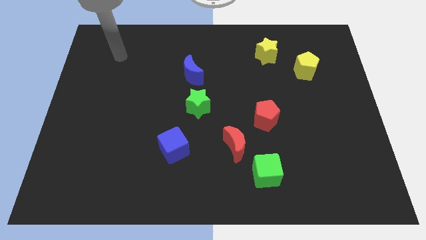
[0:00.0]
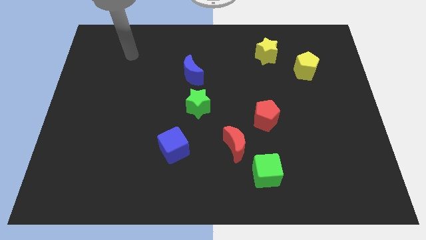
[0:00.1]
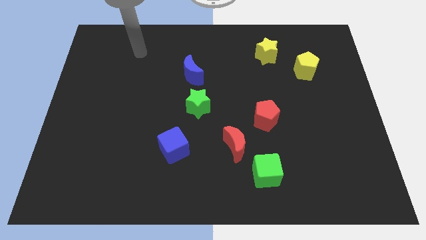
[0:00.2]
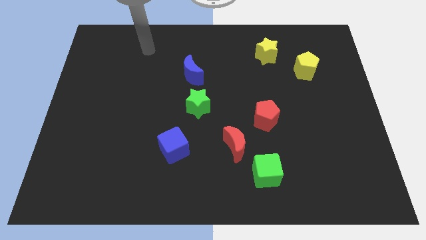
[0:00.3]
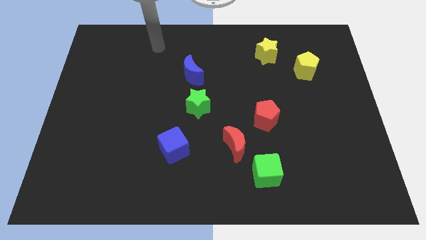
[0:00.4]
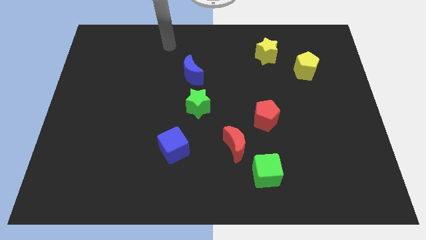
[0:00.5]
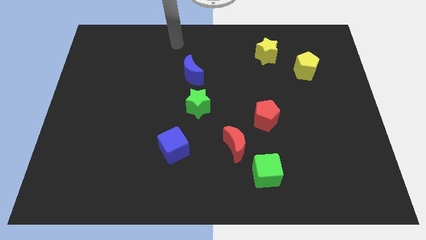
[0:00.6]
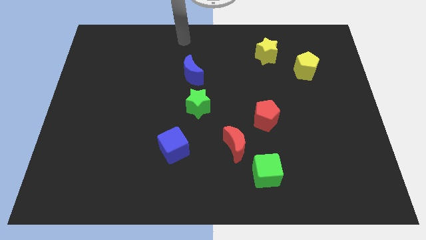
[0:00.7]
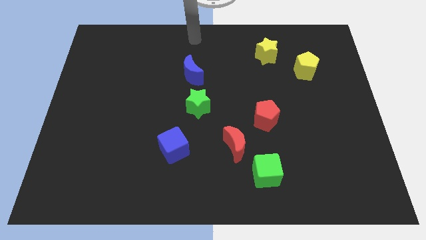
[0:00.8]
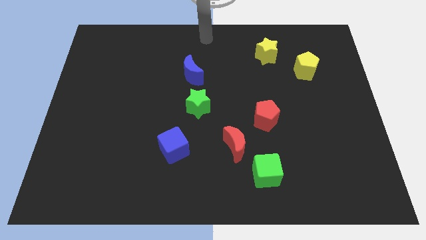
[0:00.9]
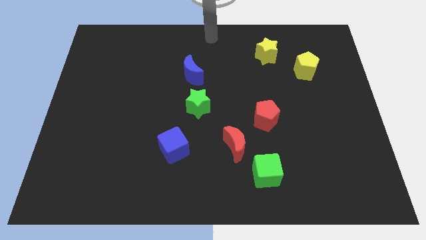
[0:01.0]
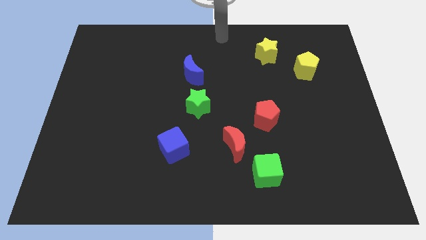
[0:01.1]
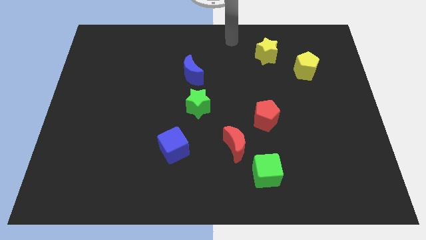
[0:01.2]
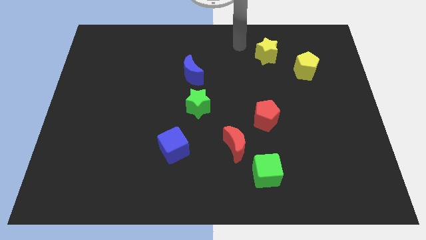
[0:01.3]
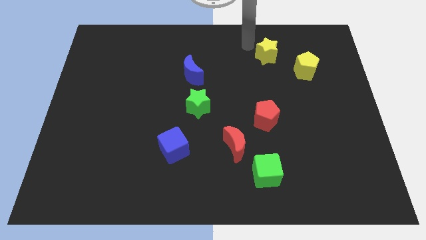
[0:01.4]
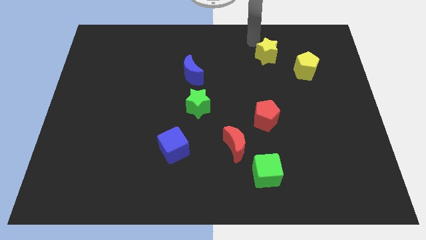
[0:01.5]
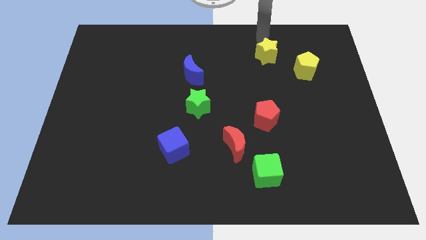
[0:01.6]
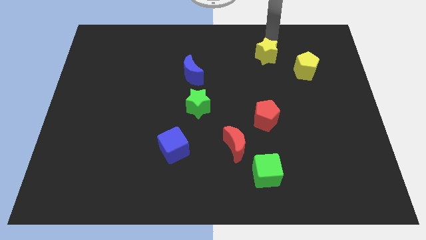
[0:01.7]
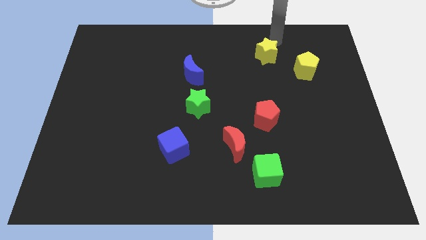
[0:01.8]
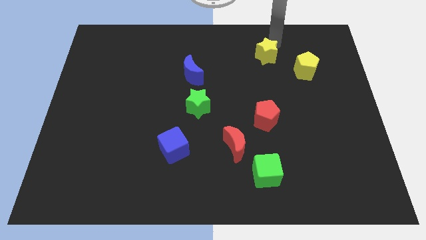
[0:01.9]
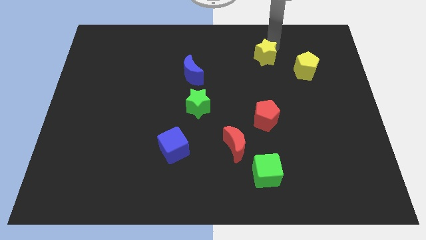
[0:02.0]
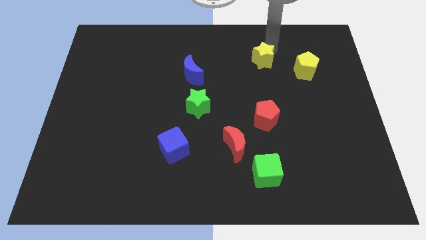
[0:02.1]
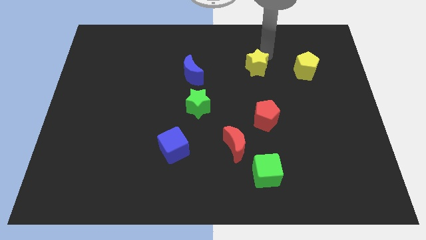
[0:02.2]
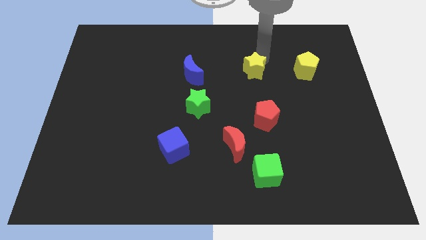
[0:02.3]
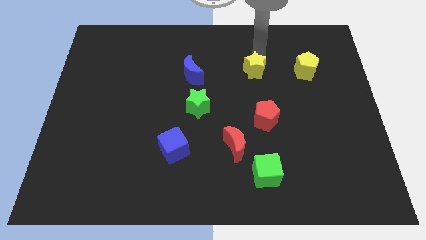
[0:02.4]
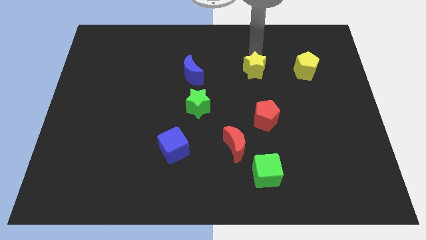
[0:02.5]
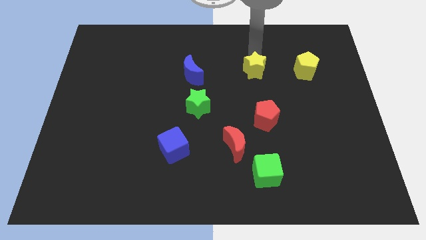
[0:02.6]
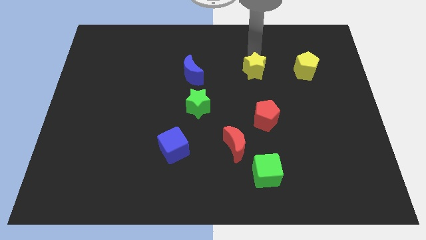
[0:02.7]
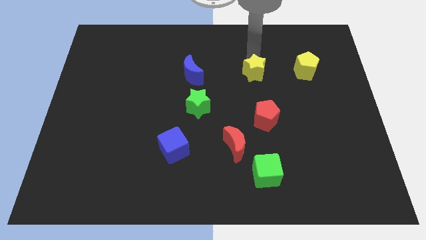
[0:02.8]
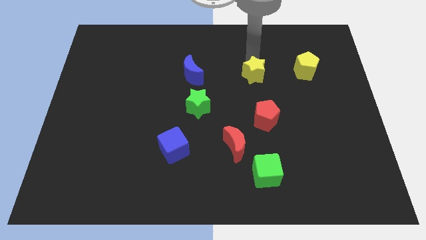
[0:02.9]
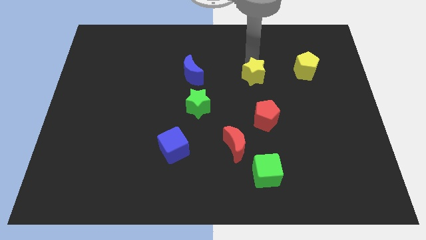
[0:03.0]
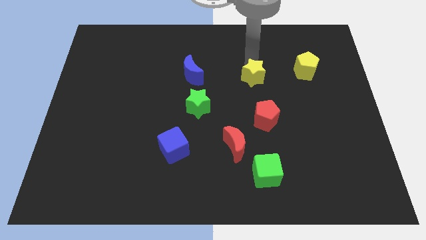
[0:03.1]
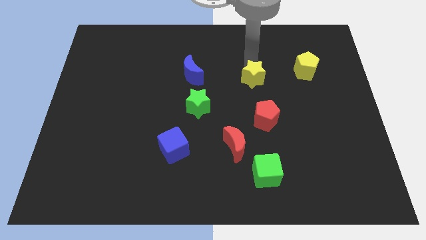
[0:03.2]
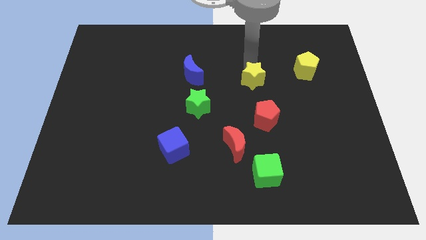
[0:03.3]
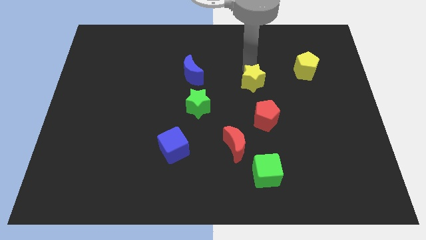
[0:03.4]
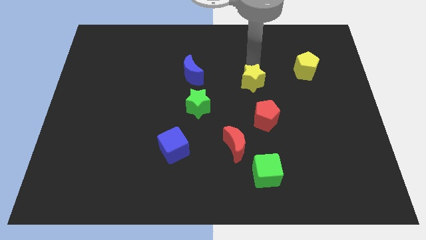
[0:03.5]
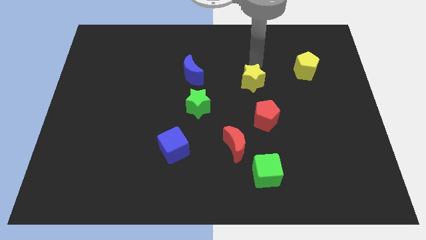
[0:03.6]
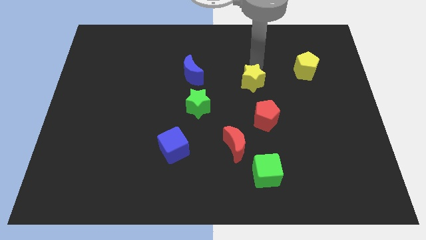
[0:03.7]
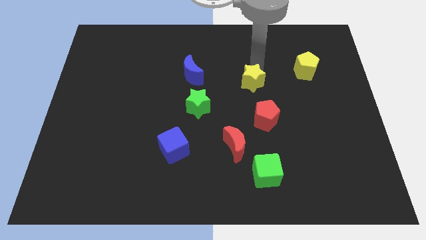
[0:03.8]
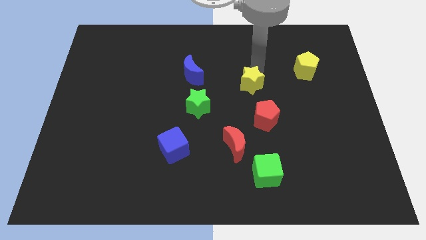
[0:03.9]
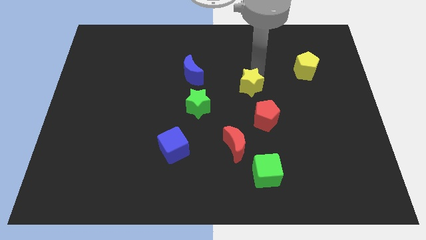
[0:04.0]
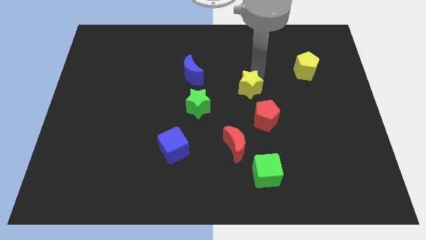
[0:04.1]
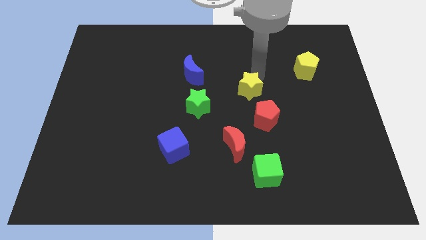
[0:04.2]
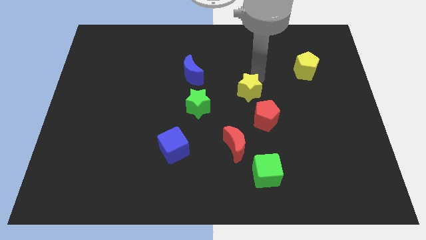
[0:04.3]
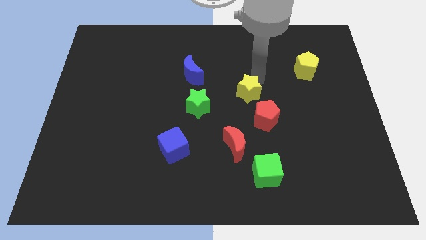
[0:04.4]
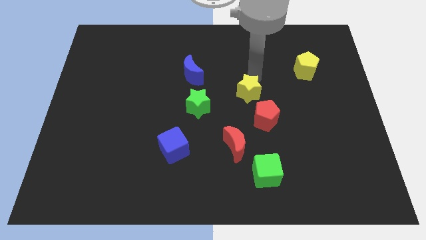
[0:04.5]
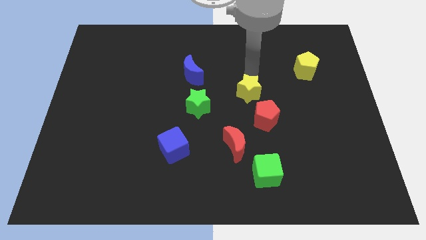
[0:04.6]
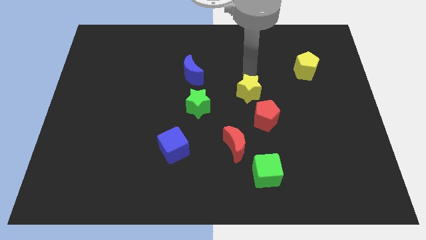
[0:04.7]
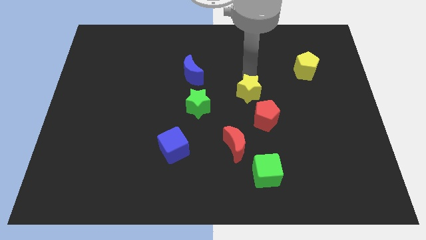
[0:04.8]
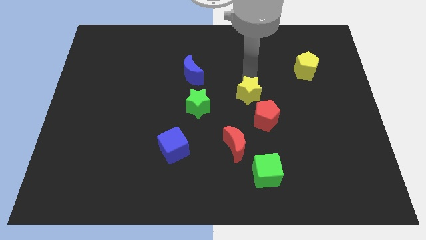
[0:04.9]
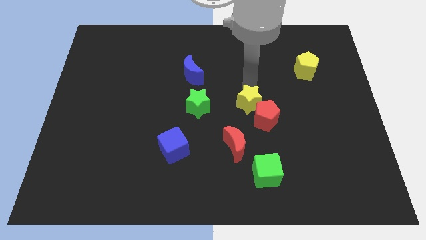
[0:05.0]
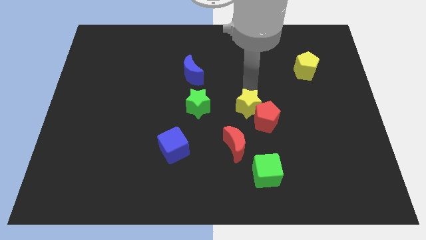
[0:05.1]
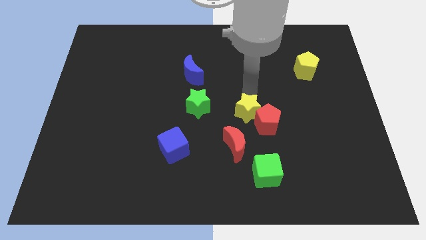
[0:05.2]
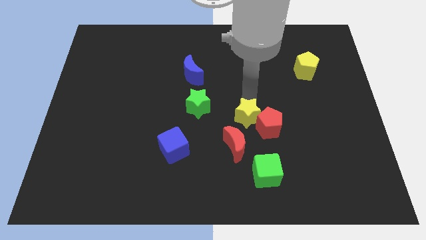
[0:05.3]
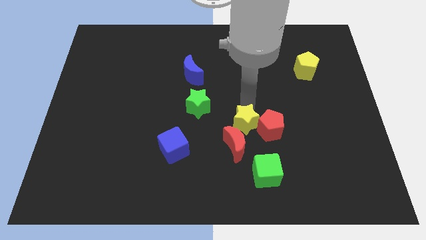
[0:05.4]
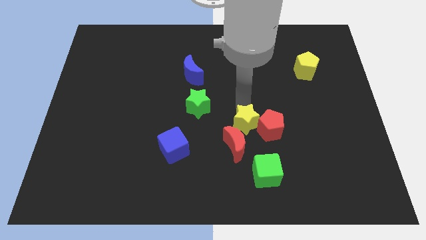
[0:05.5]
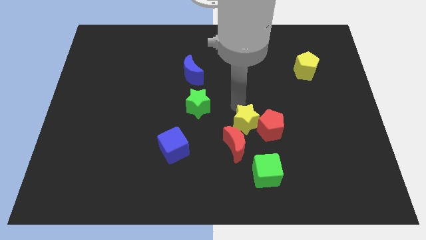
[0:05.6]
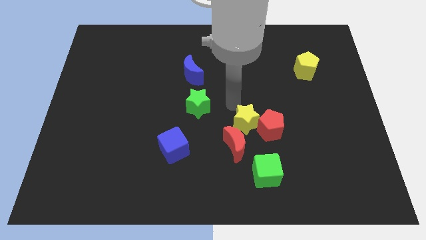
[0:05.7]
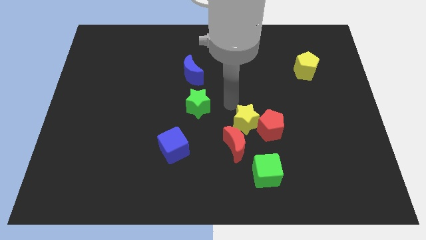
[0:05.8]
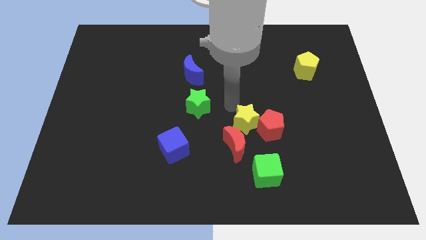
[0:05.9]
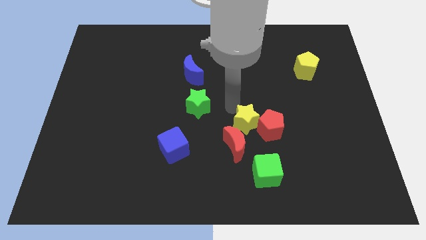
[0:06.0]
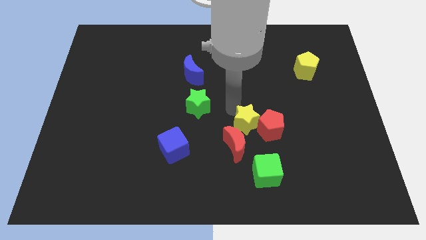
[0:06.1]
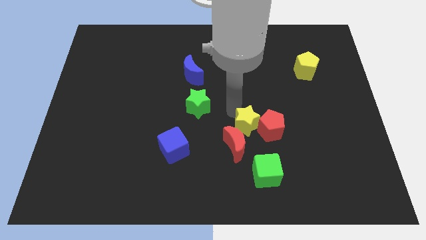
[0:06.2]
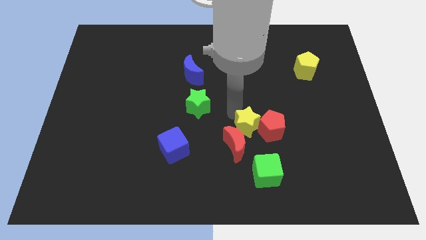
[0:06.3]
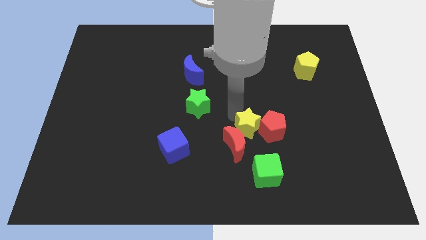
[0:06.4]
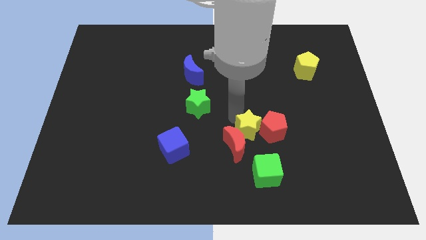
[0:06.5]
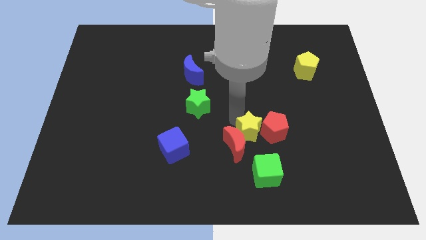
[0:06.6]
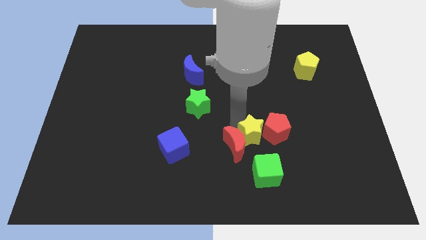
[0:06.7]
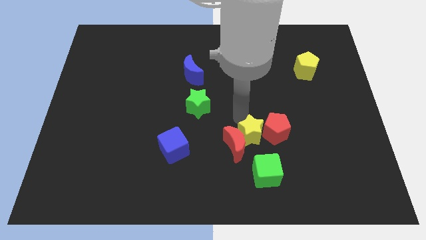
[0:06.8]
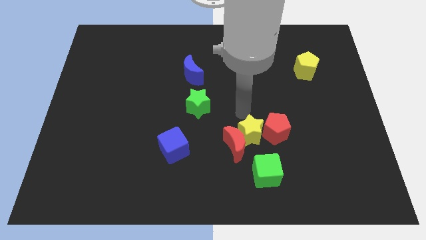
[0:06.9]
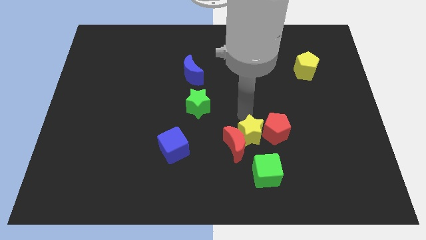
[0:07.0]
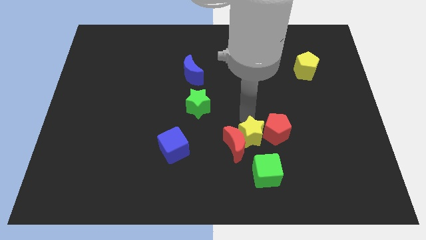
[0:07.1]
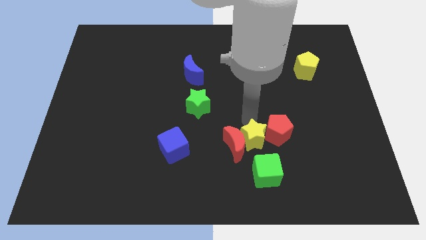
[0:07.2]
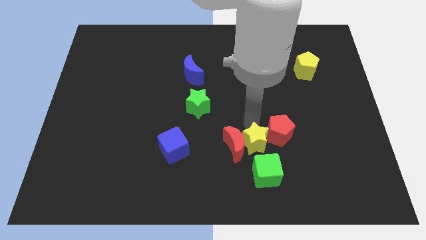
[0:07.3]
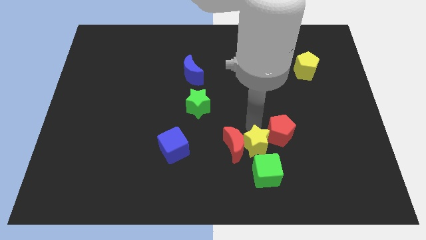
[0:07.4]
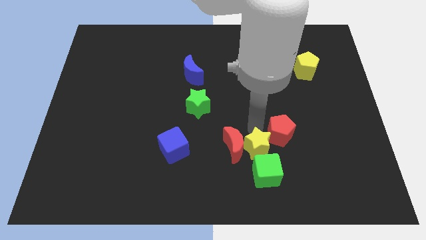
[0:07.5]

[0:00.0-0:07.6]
move the yellow star to the green cube

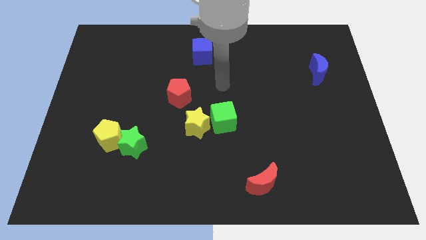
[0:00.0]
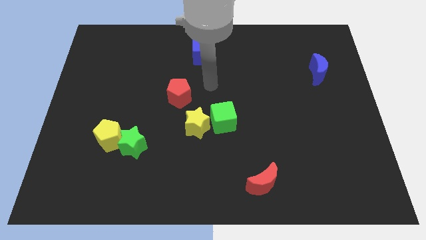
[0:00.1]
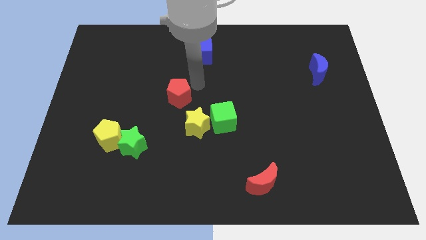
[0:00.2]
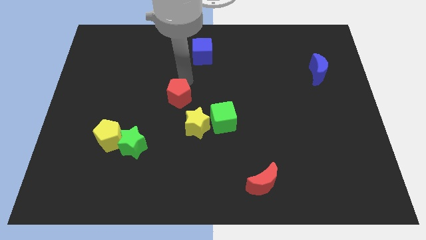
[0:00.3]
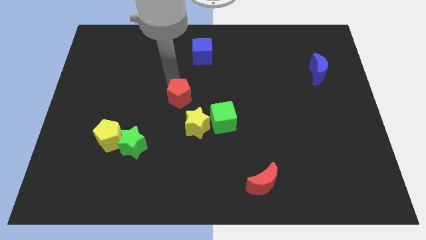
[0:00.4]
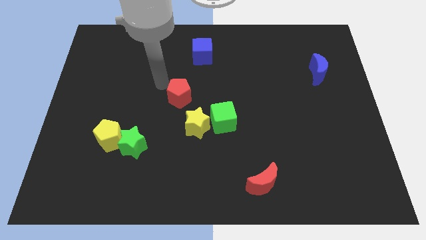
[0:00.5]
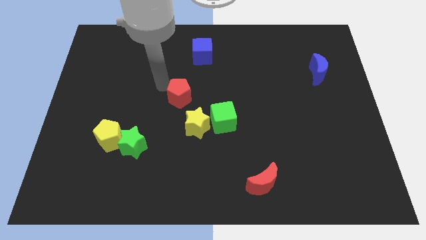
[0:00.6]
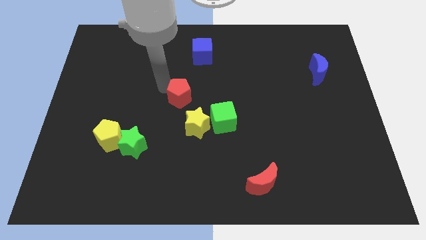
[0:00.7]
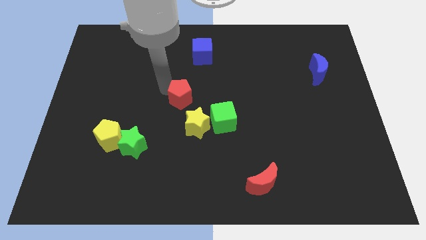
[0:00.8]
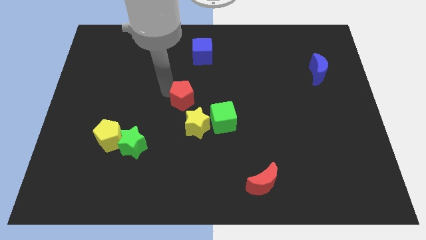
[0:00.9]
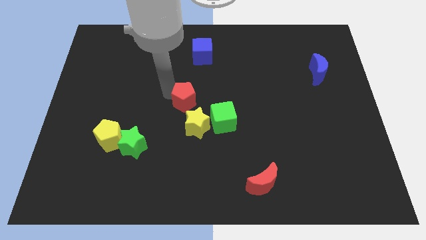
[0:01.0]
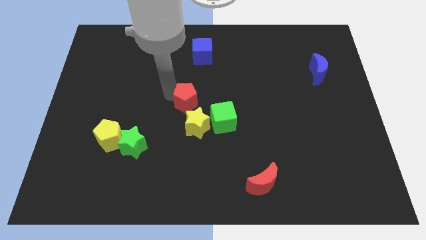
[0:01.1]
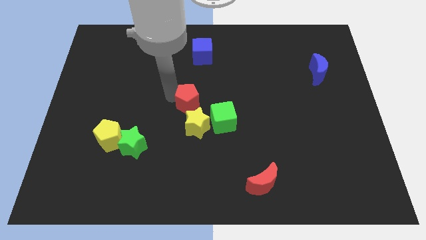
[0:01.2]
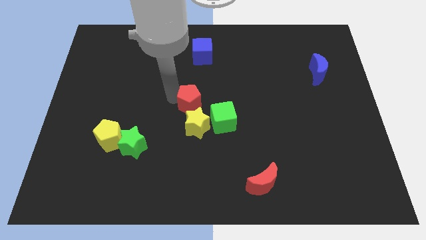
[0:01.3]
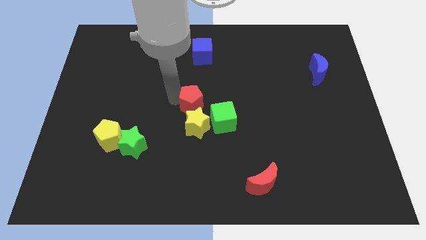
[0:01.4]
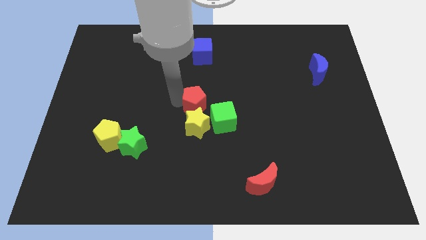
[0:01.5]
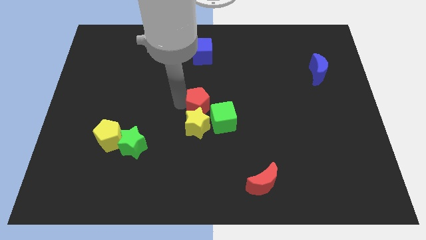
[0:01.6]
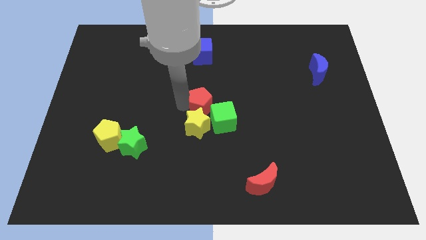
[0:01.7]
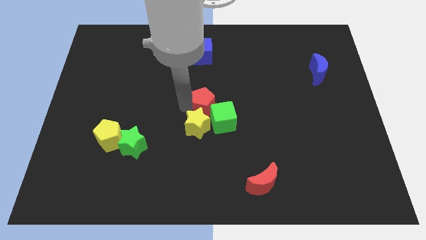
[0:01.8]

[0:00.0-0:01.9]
put the red pentagon towards the green cube
